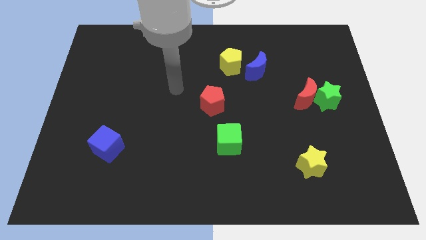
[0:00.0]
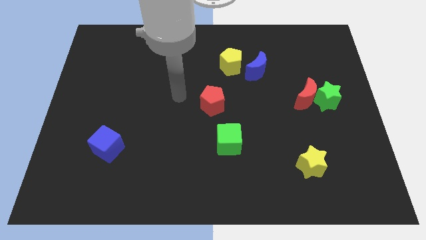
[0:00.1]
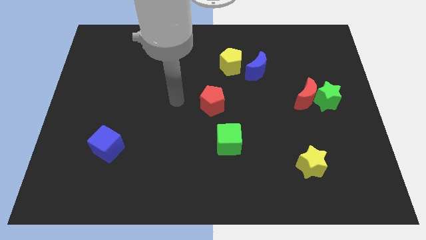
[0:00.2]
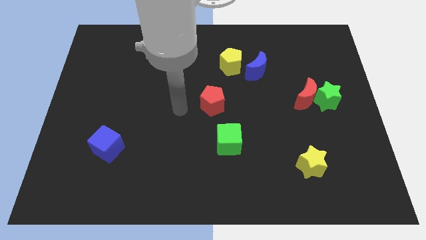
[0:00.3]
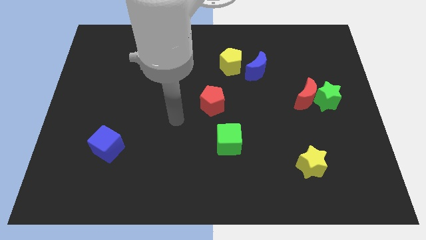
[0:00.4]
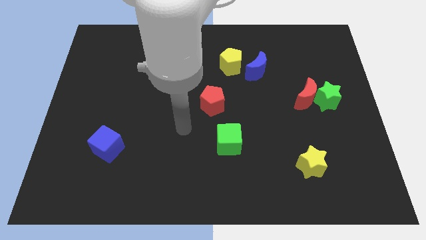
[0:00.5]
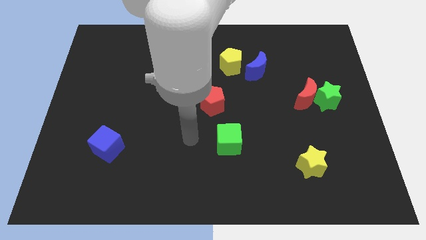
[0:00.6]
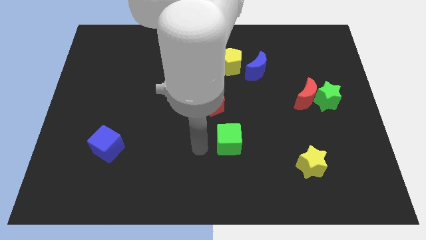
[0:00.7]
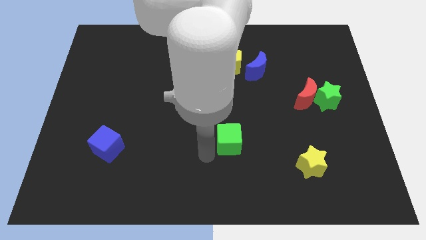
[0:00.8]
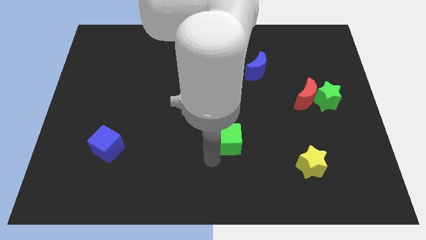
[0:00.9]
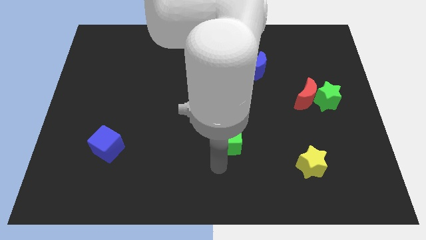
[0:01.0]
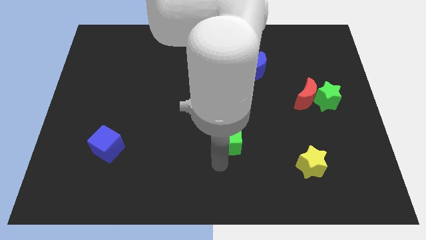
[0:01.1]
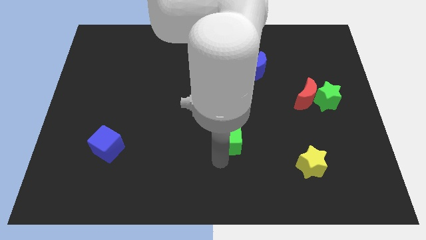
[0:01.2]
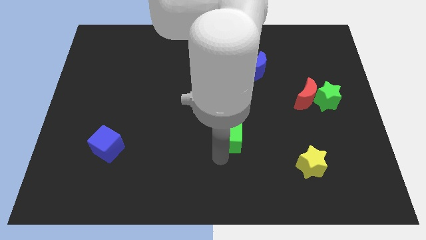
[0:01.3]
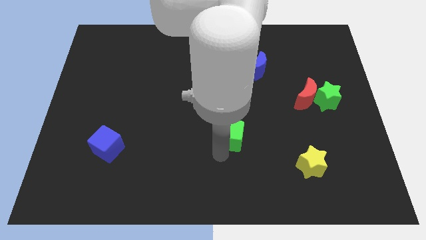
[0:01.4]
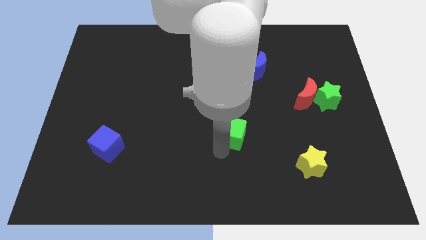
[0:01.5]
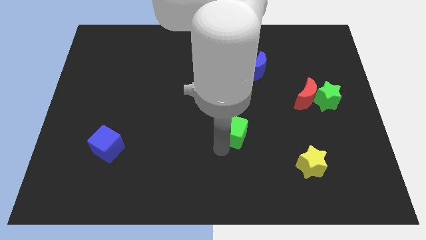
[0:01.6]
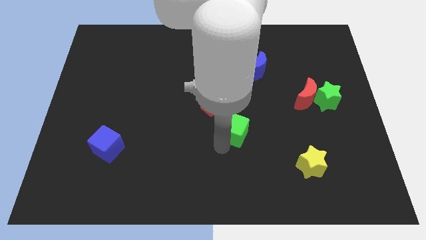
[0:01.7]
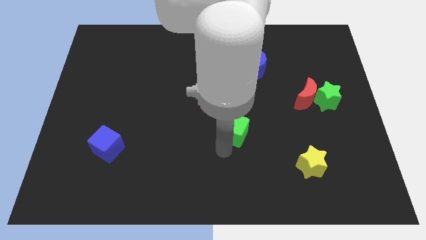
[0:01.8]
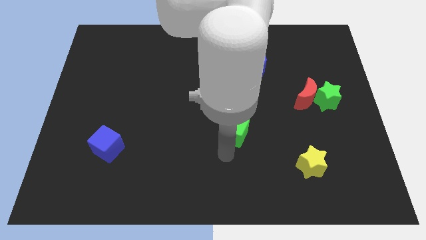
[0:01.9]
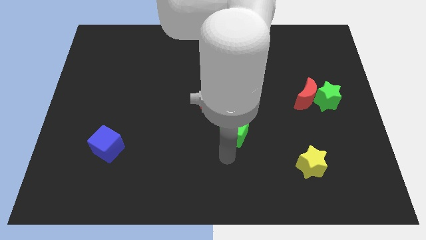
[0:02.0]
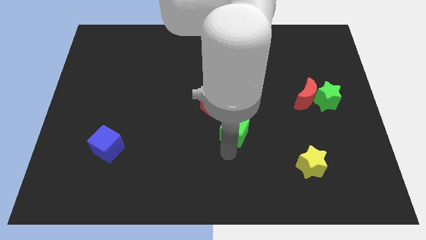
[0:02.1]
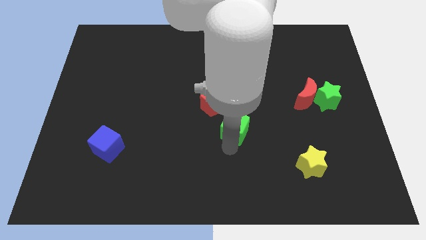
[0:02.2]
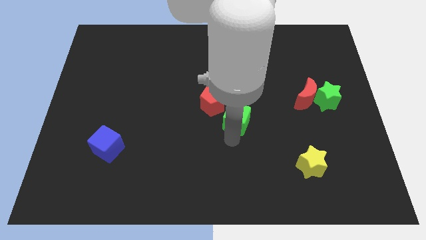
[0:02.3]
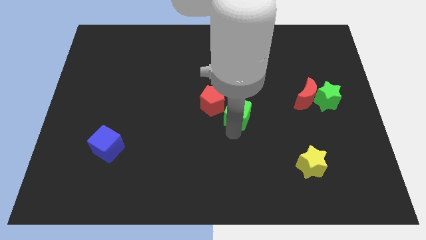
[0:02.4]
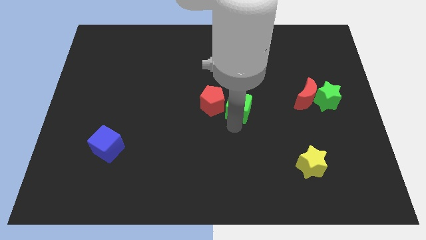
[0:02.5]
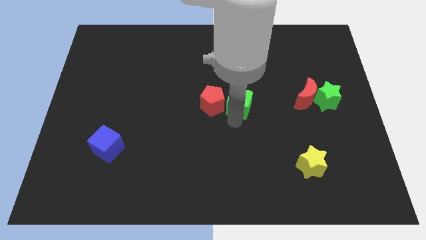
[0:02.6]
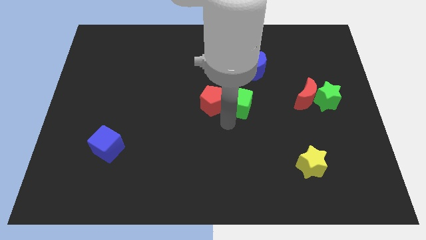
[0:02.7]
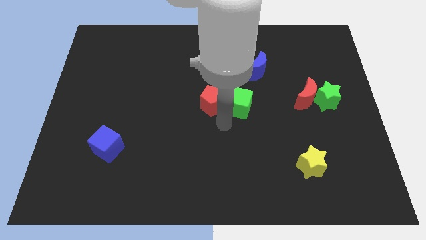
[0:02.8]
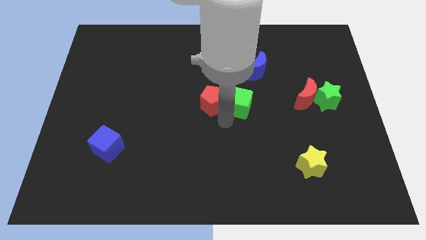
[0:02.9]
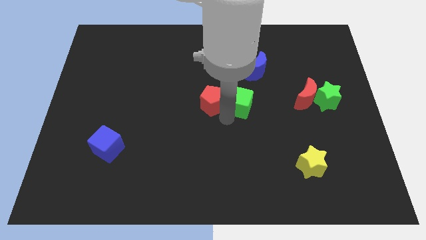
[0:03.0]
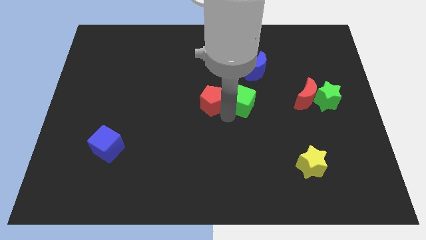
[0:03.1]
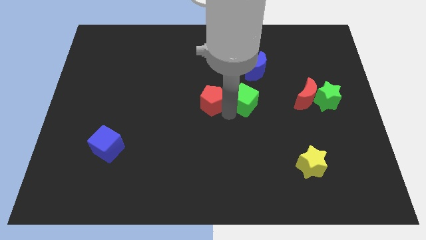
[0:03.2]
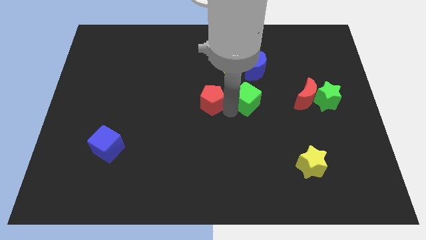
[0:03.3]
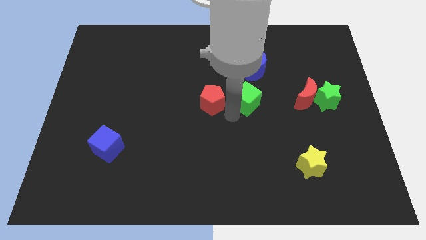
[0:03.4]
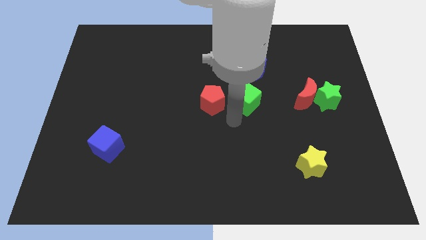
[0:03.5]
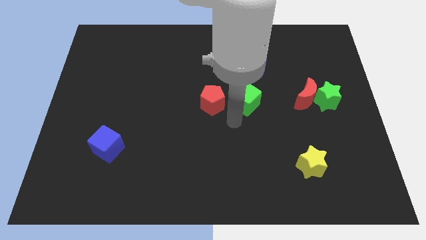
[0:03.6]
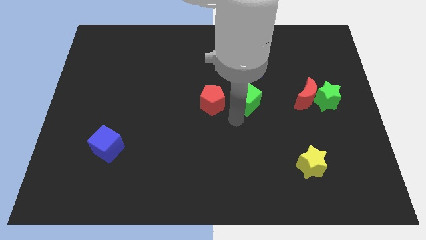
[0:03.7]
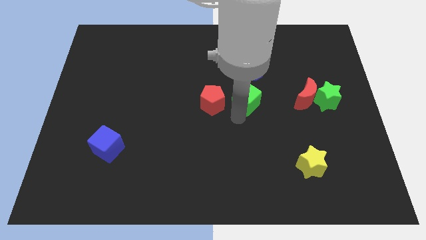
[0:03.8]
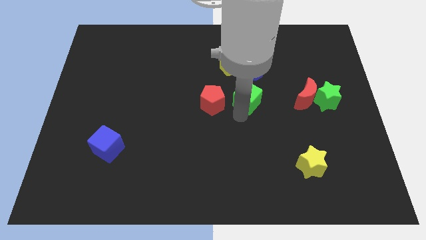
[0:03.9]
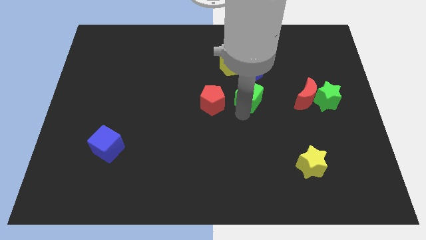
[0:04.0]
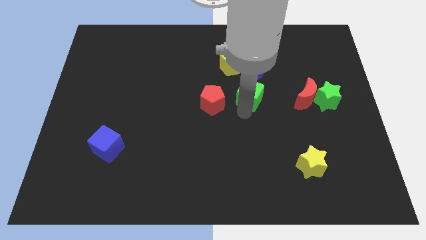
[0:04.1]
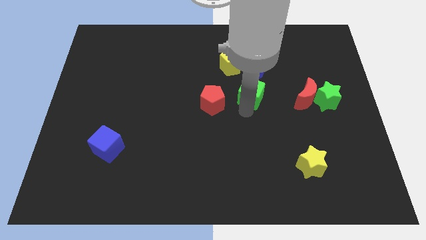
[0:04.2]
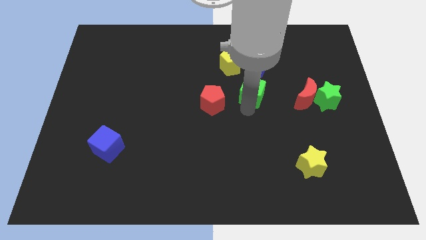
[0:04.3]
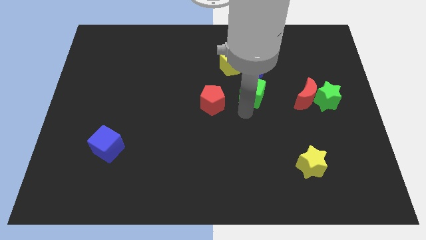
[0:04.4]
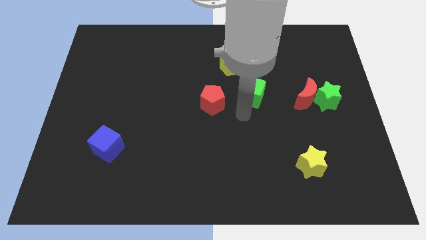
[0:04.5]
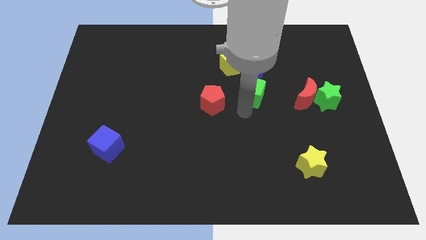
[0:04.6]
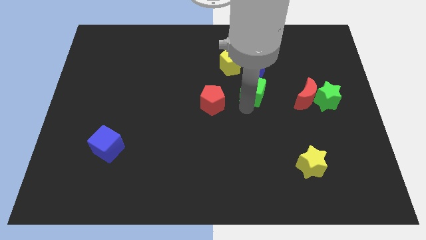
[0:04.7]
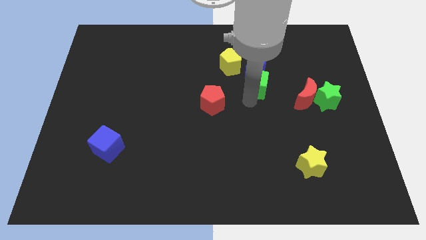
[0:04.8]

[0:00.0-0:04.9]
put the green cube next to the blue moon
